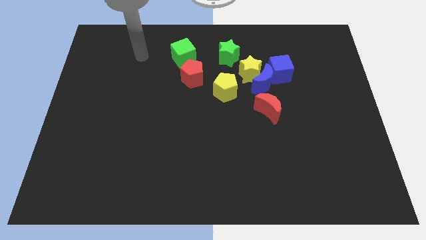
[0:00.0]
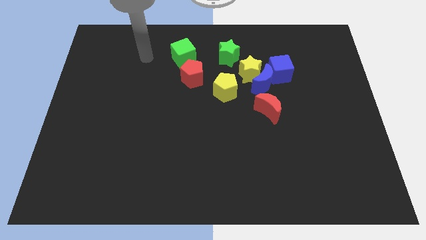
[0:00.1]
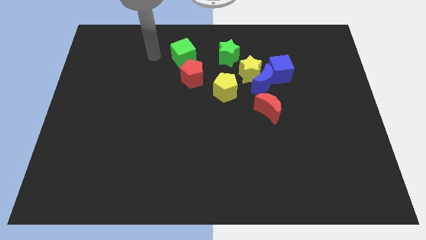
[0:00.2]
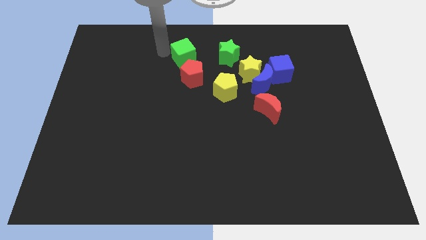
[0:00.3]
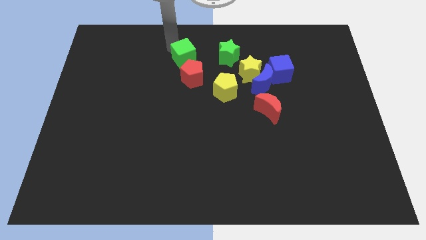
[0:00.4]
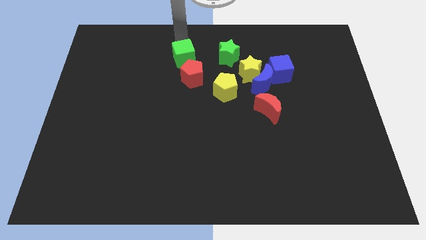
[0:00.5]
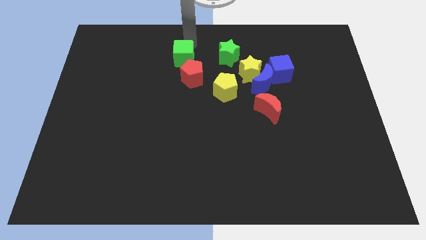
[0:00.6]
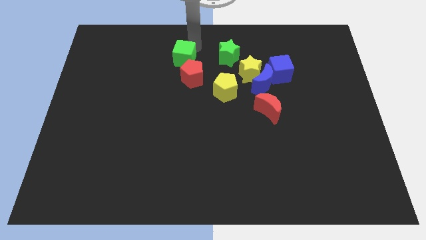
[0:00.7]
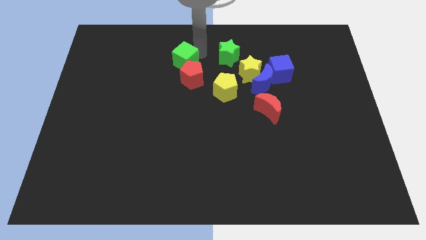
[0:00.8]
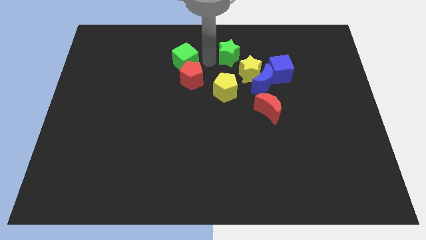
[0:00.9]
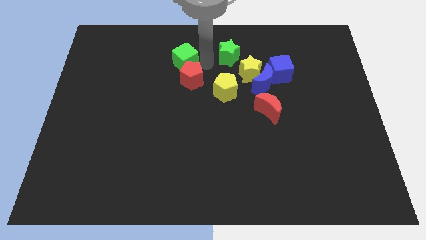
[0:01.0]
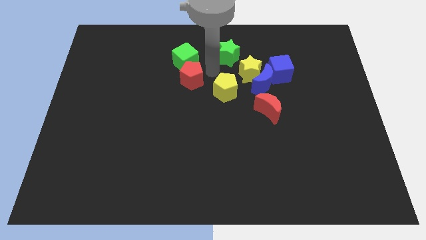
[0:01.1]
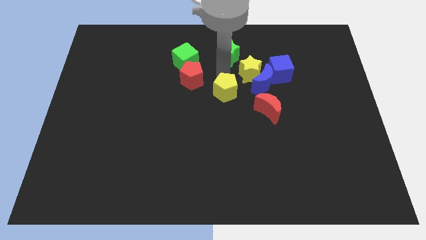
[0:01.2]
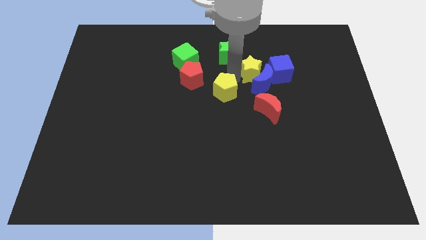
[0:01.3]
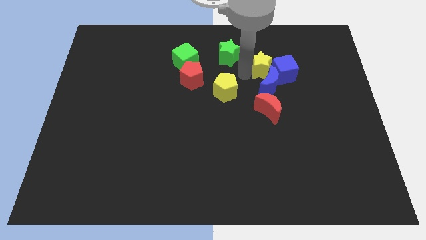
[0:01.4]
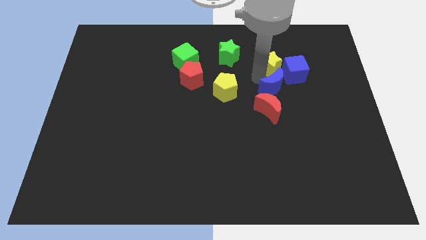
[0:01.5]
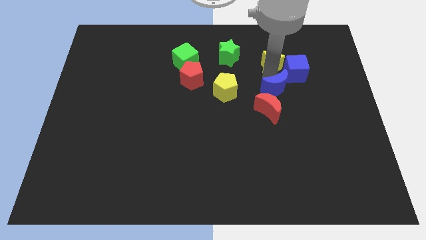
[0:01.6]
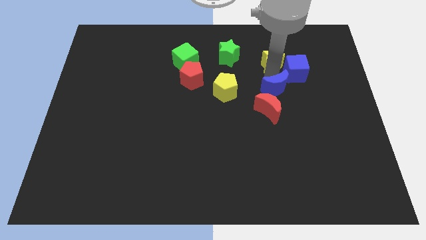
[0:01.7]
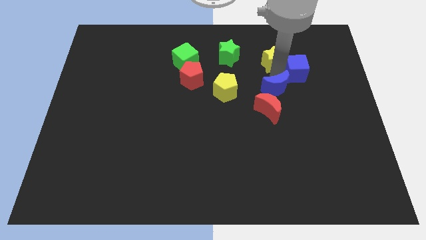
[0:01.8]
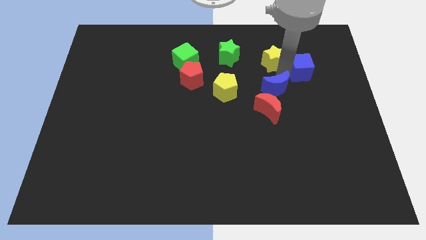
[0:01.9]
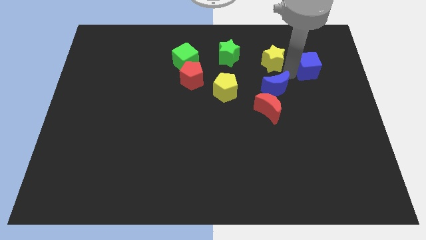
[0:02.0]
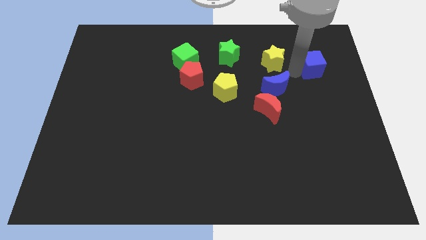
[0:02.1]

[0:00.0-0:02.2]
move the blue cube away from the blue moon and yellow star

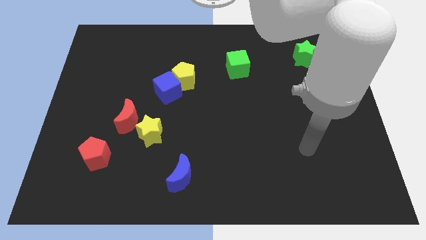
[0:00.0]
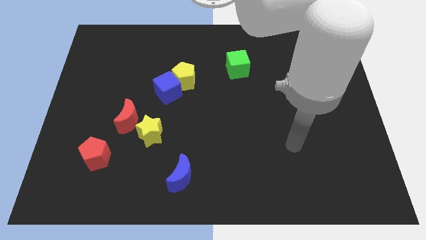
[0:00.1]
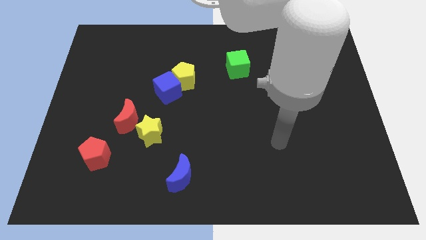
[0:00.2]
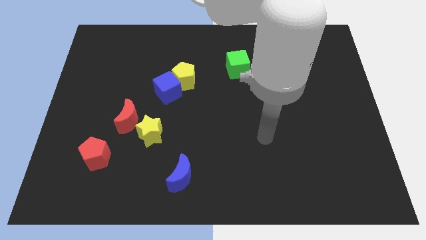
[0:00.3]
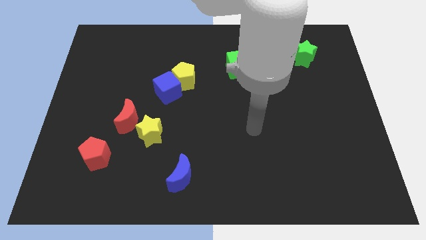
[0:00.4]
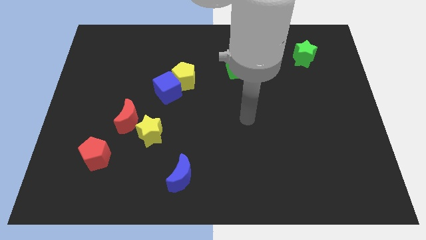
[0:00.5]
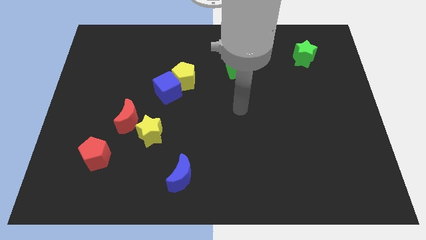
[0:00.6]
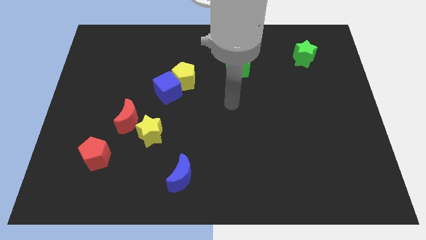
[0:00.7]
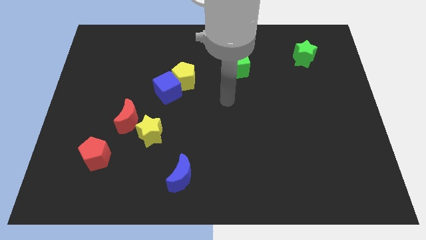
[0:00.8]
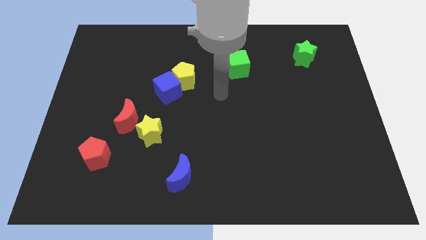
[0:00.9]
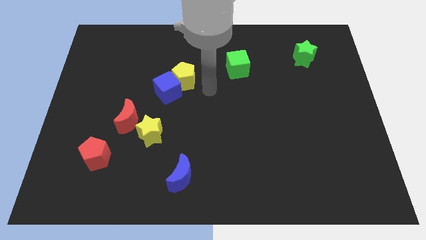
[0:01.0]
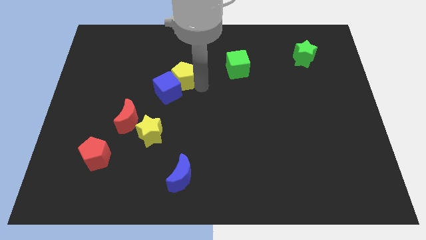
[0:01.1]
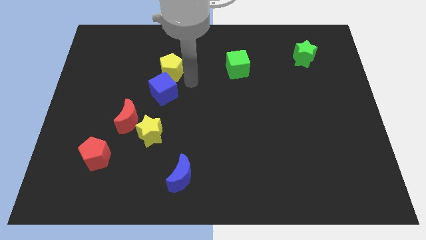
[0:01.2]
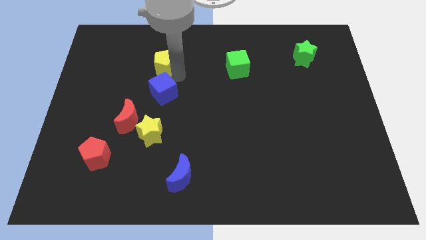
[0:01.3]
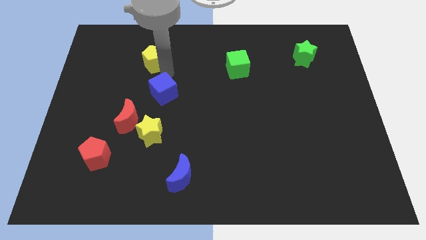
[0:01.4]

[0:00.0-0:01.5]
move the blue cube away from the yellow pentagon

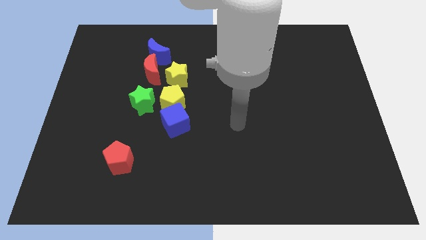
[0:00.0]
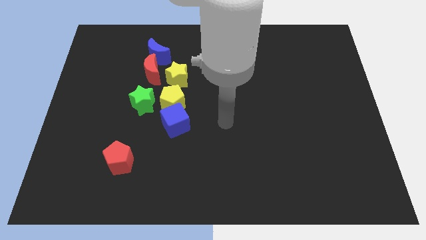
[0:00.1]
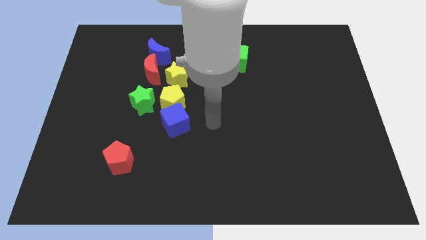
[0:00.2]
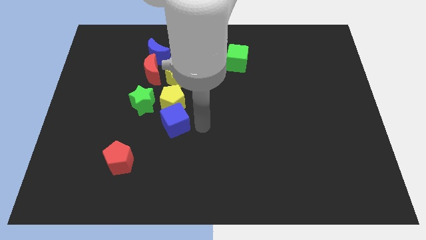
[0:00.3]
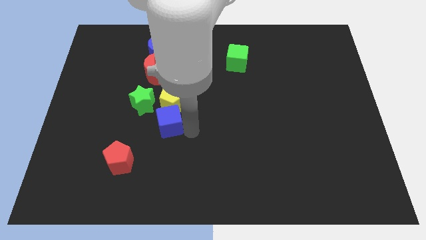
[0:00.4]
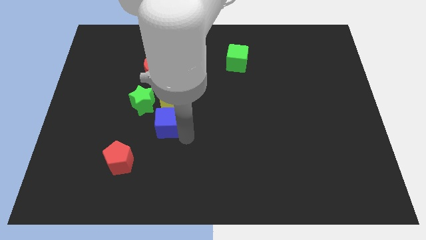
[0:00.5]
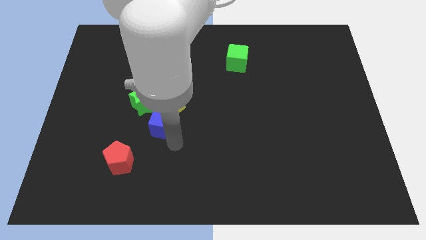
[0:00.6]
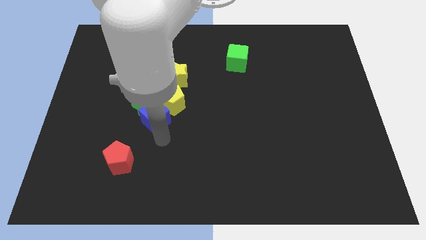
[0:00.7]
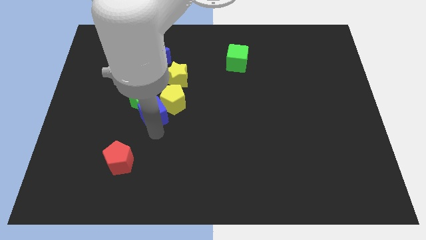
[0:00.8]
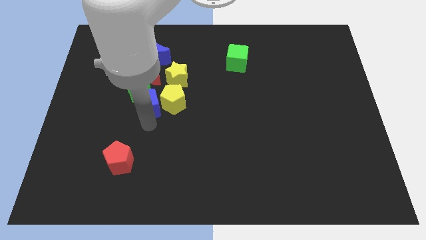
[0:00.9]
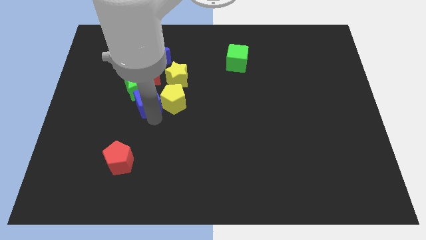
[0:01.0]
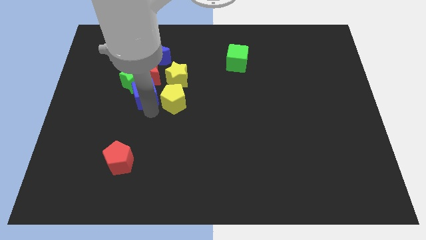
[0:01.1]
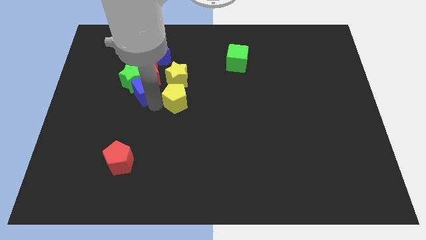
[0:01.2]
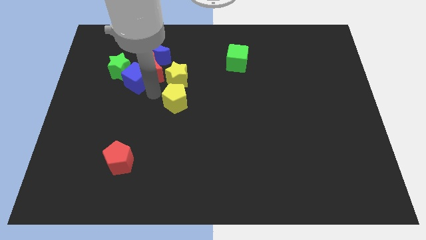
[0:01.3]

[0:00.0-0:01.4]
pull the yellow pentagon apart from the group

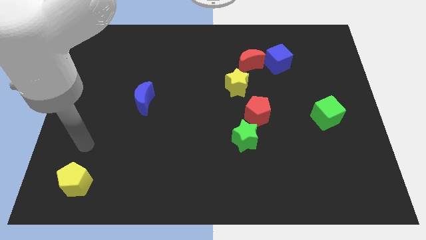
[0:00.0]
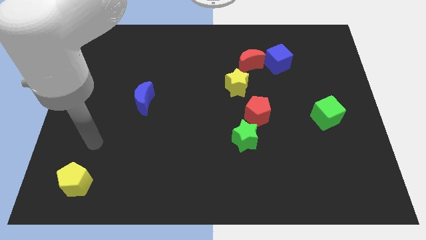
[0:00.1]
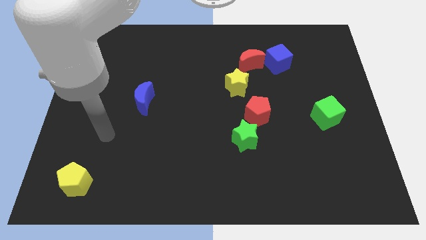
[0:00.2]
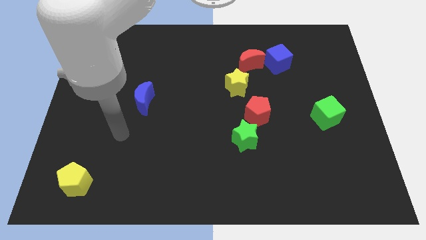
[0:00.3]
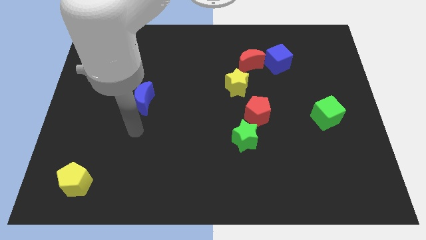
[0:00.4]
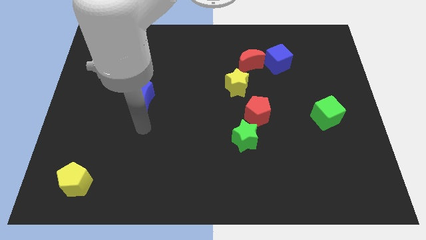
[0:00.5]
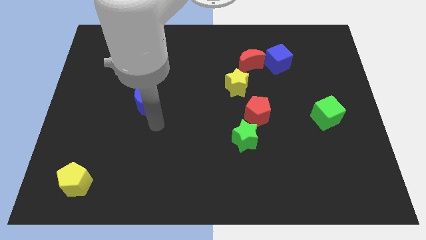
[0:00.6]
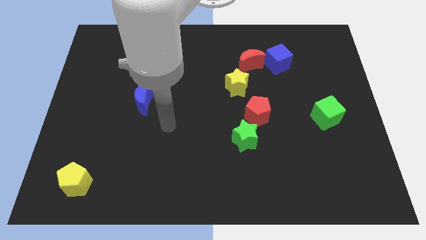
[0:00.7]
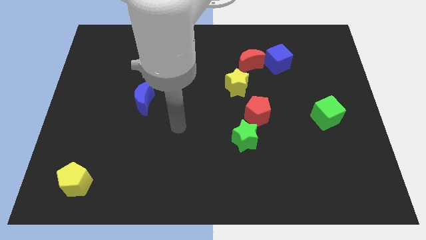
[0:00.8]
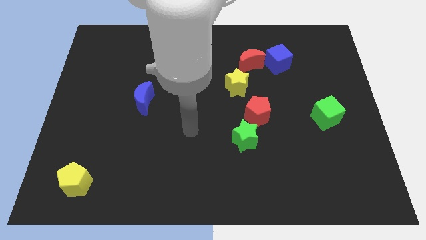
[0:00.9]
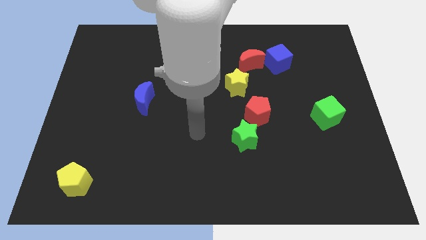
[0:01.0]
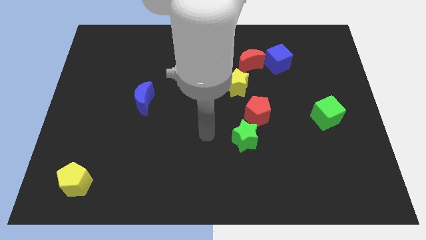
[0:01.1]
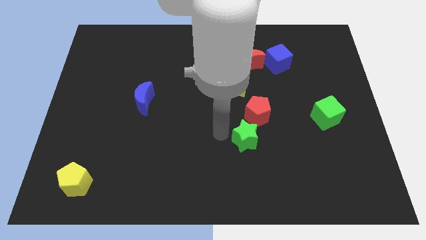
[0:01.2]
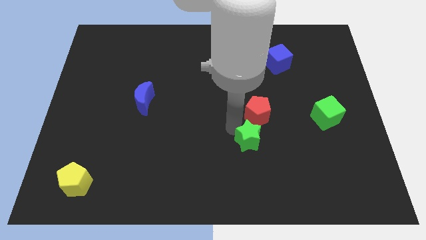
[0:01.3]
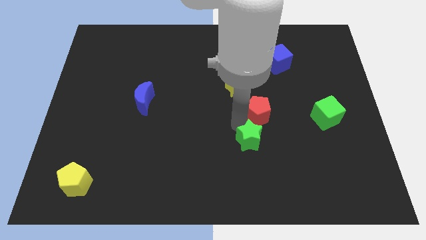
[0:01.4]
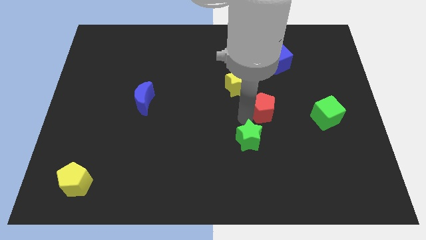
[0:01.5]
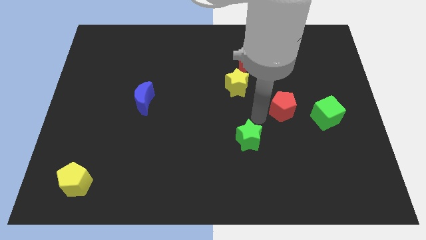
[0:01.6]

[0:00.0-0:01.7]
separate the green star from the red pentagon

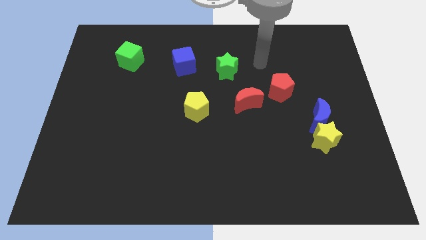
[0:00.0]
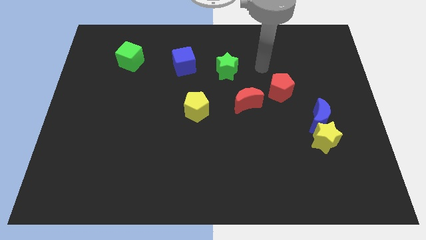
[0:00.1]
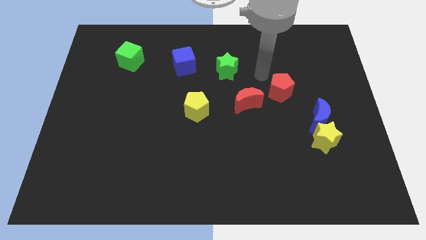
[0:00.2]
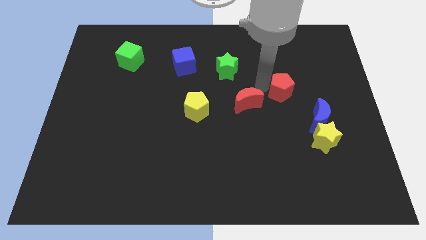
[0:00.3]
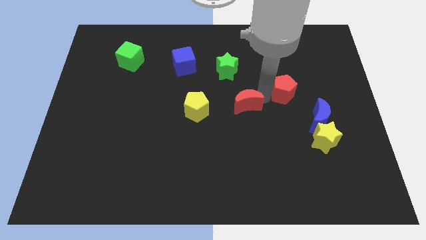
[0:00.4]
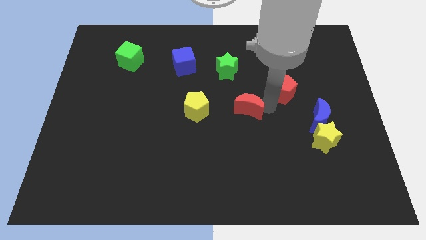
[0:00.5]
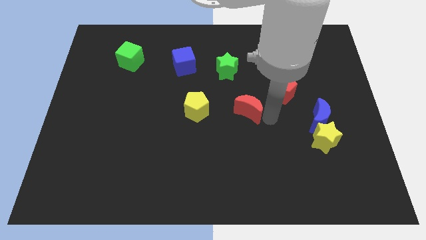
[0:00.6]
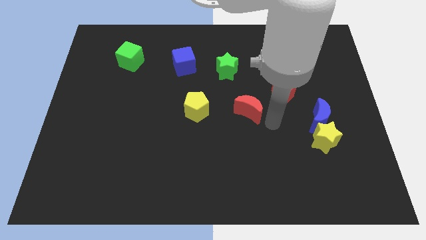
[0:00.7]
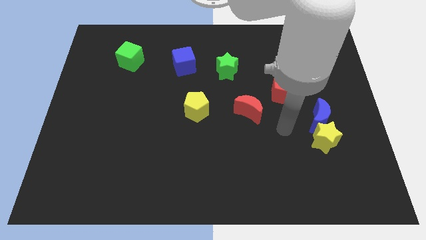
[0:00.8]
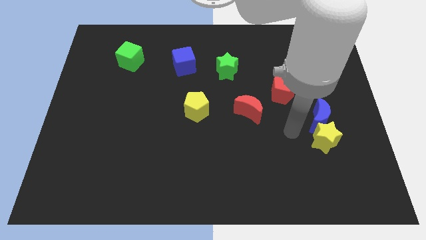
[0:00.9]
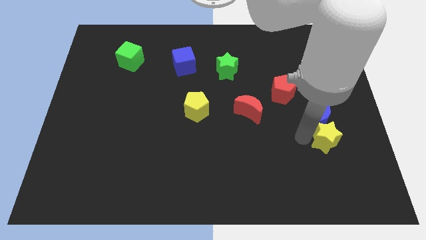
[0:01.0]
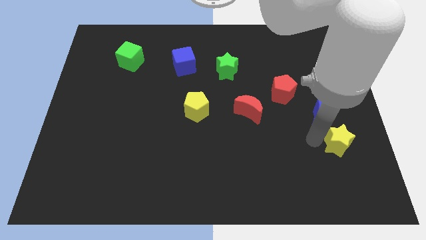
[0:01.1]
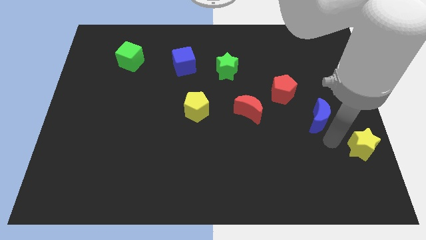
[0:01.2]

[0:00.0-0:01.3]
move the blue moon away from the yellow star

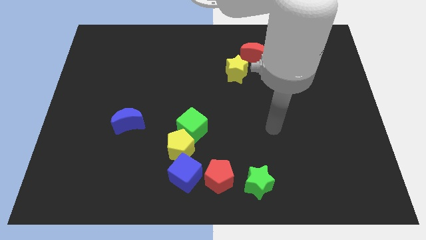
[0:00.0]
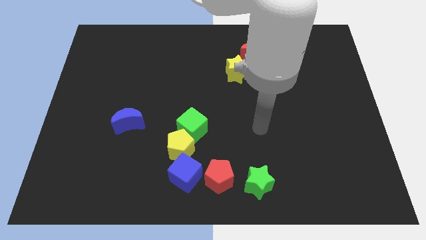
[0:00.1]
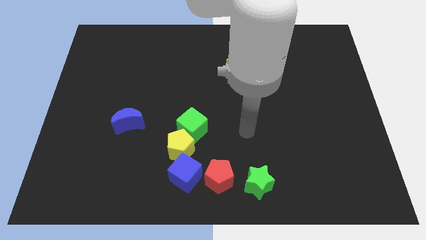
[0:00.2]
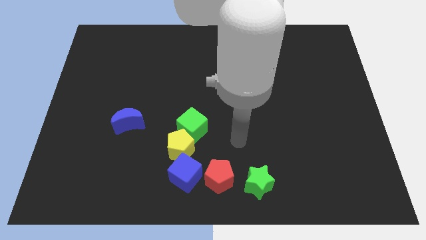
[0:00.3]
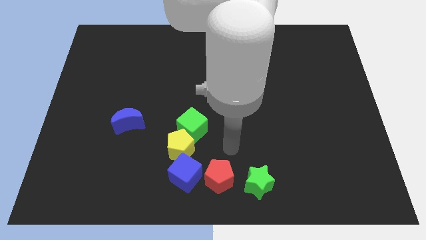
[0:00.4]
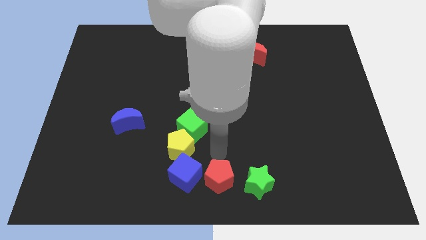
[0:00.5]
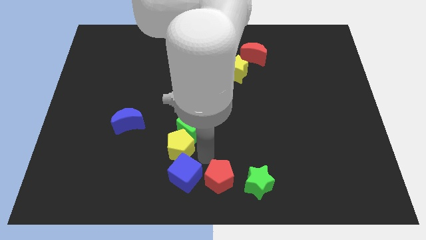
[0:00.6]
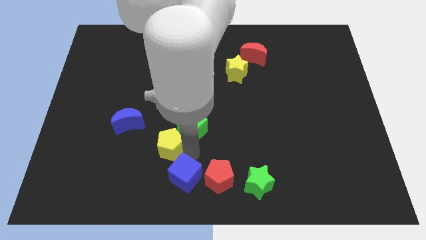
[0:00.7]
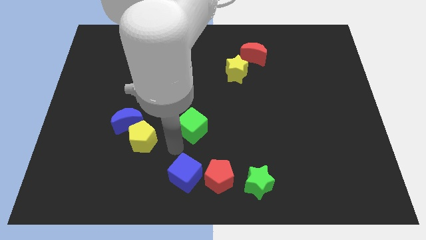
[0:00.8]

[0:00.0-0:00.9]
move the green cube away from the yellow pentagon

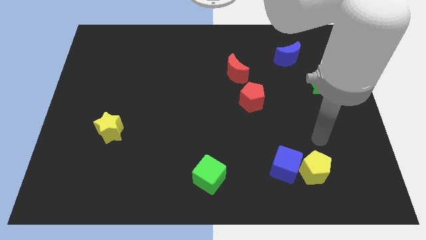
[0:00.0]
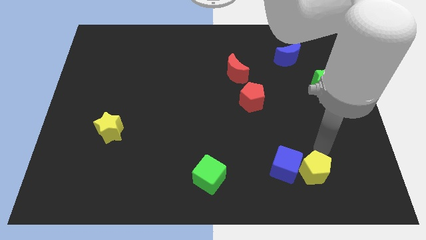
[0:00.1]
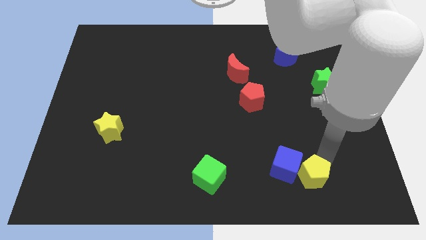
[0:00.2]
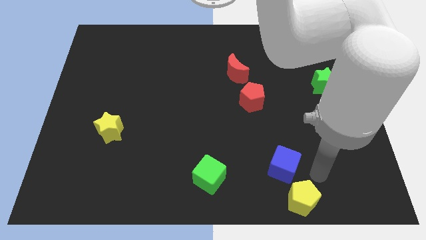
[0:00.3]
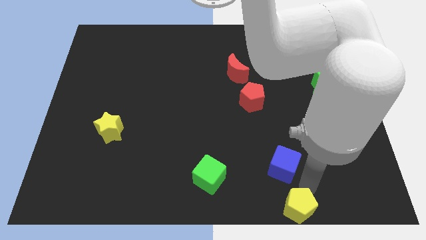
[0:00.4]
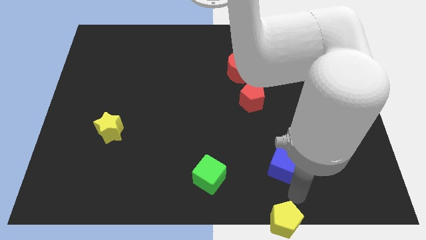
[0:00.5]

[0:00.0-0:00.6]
pull the blue cube apart from the yellow pentagon
